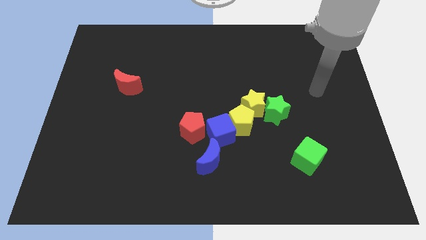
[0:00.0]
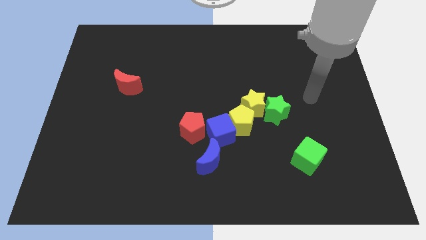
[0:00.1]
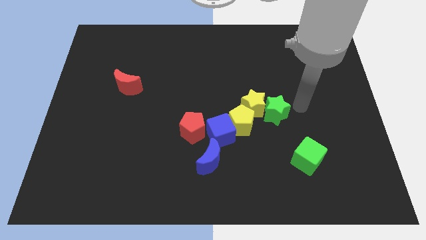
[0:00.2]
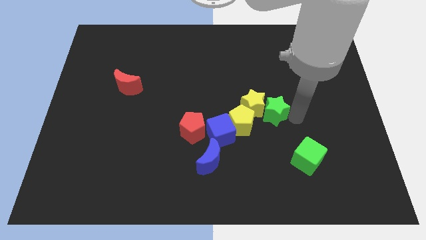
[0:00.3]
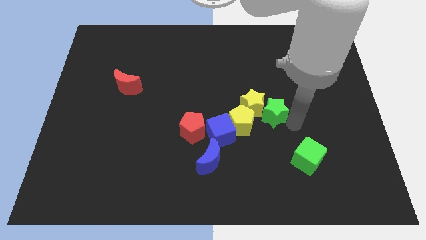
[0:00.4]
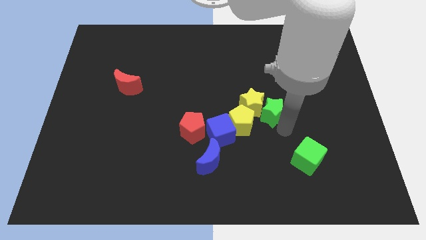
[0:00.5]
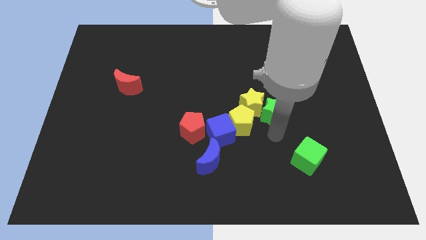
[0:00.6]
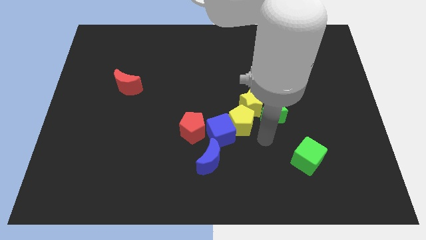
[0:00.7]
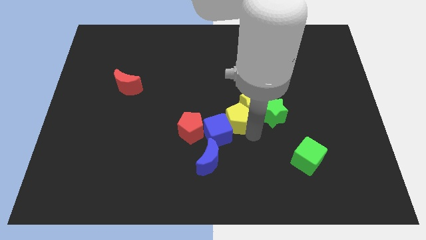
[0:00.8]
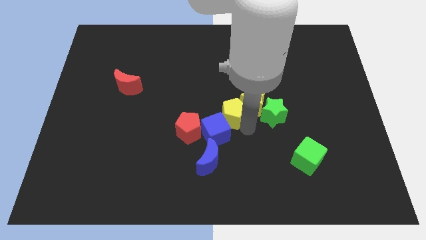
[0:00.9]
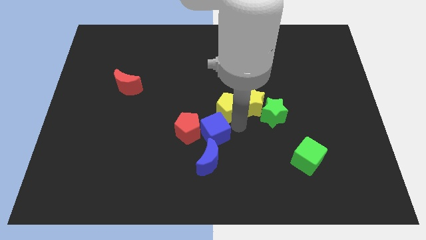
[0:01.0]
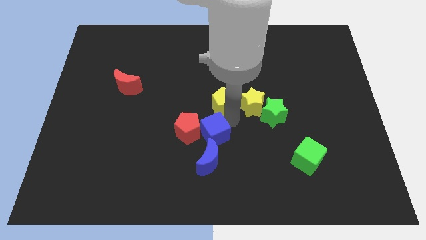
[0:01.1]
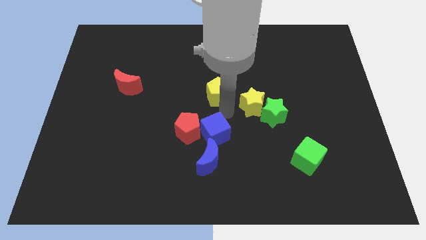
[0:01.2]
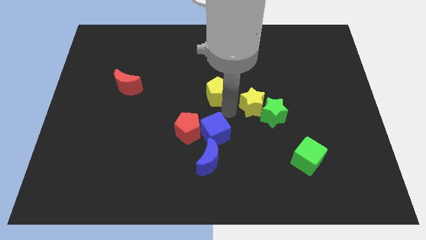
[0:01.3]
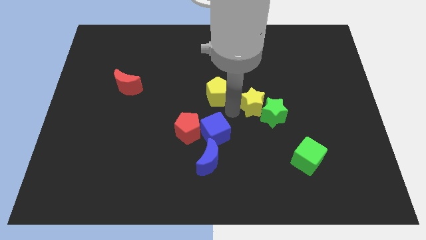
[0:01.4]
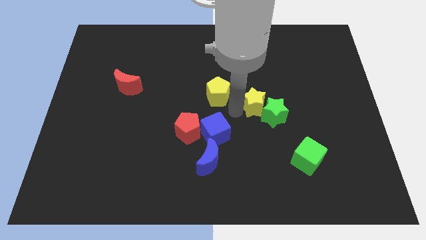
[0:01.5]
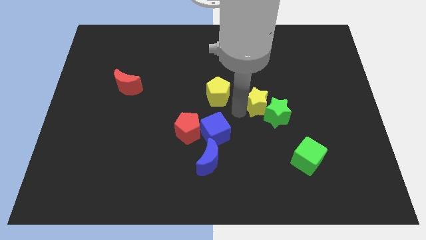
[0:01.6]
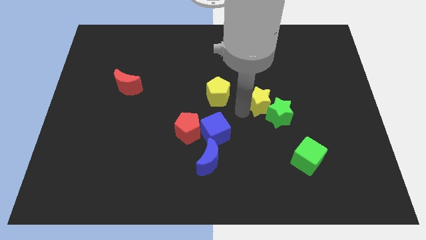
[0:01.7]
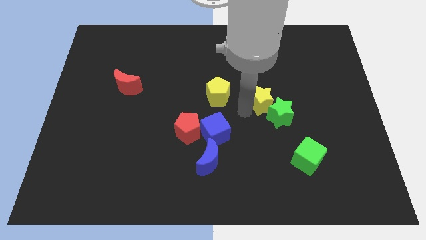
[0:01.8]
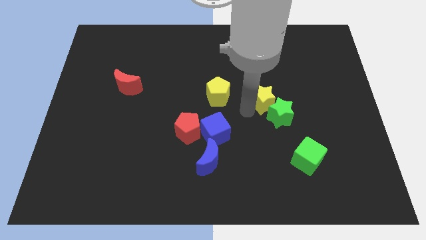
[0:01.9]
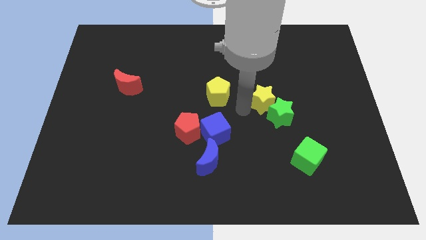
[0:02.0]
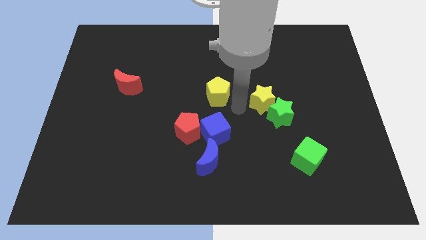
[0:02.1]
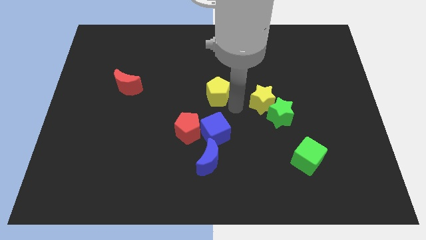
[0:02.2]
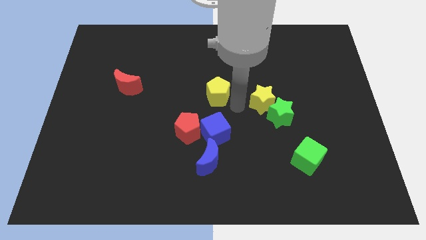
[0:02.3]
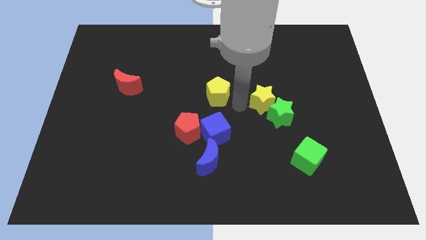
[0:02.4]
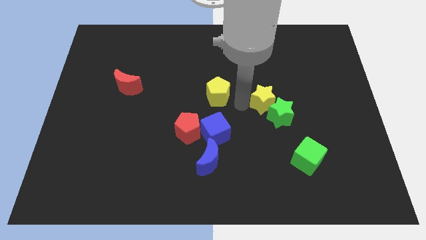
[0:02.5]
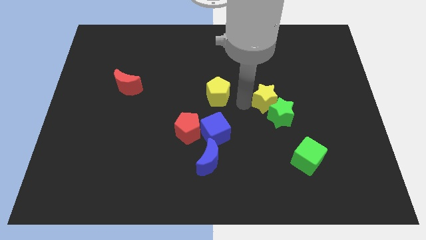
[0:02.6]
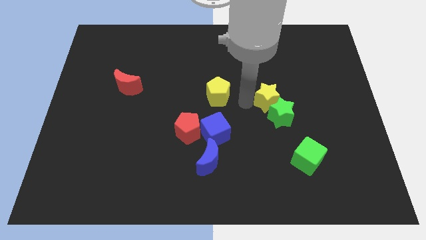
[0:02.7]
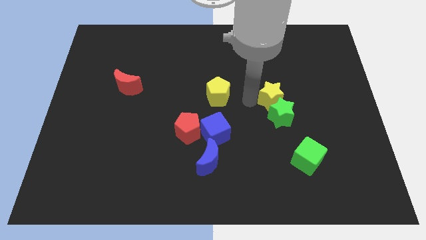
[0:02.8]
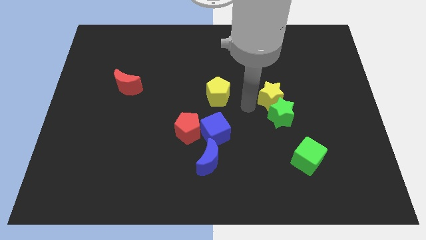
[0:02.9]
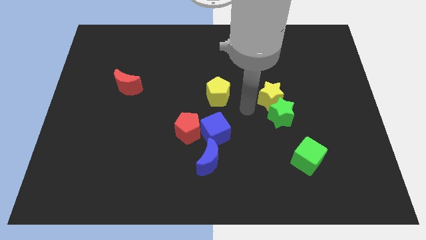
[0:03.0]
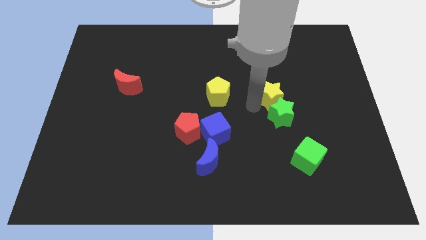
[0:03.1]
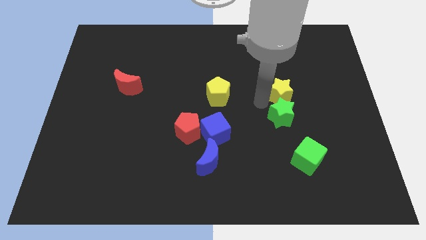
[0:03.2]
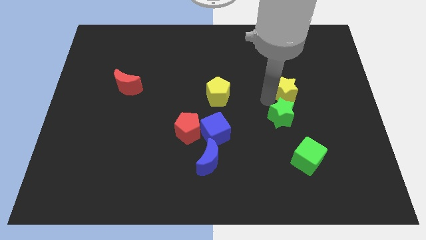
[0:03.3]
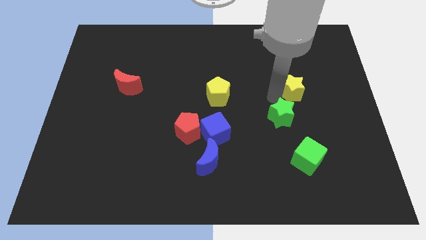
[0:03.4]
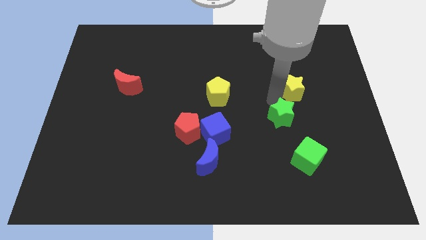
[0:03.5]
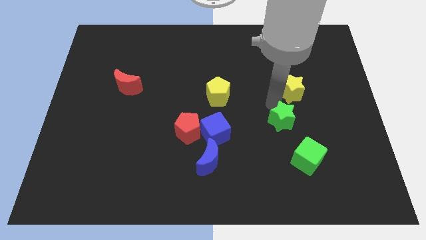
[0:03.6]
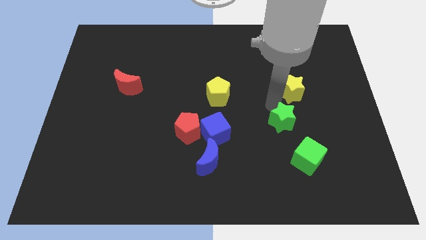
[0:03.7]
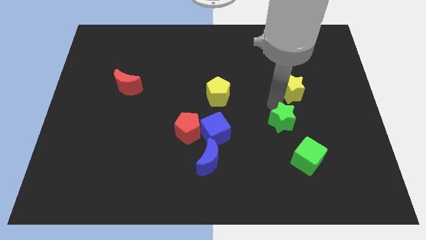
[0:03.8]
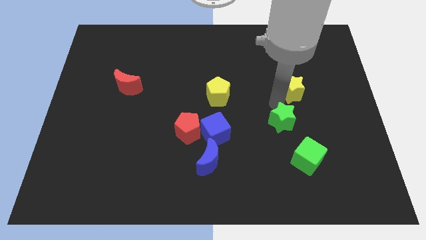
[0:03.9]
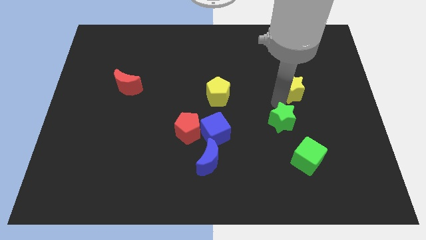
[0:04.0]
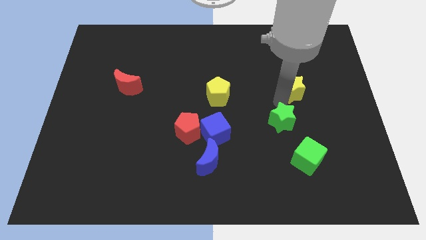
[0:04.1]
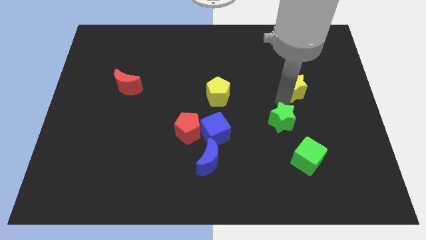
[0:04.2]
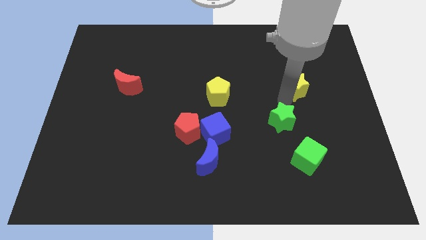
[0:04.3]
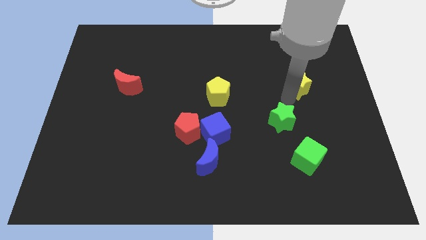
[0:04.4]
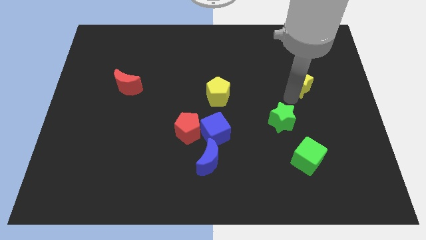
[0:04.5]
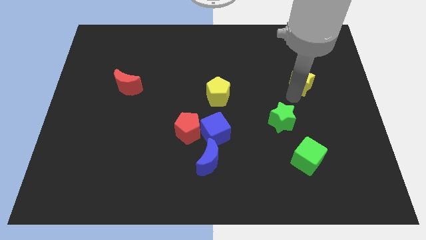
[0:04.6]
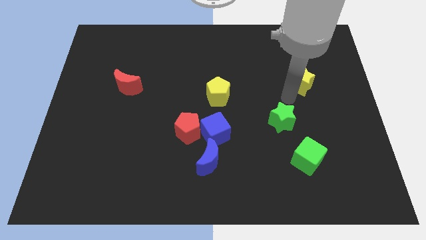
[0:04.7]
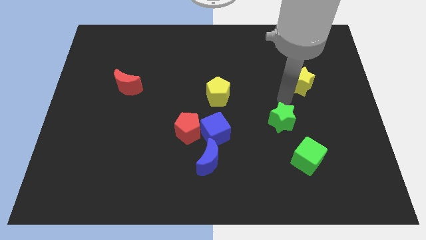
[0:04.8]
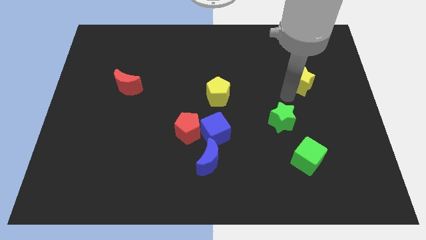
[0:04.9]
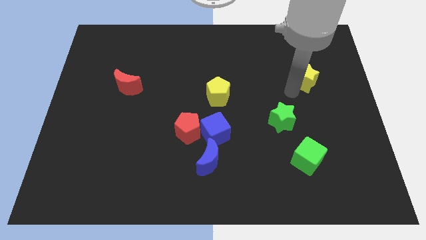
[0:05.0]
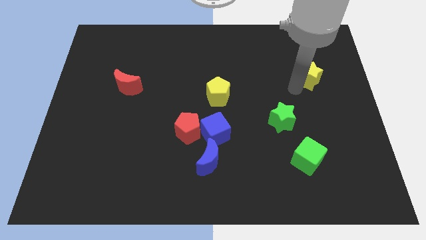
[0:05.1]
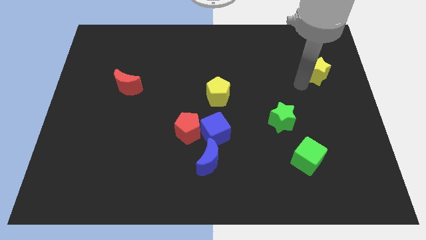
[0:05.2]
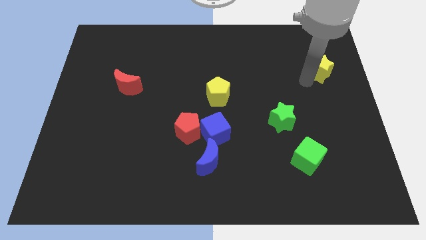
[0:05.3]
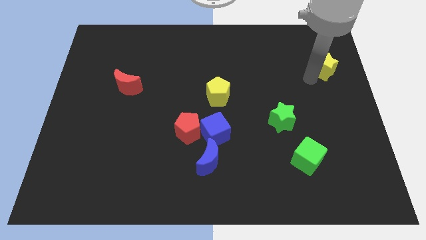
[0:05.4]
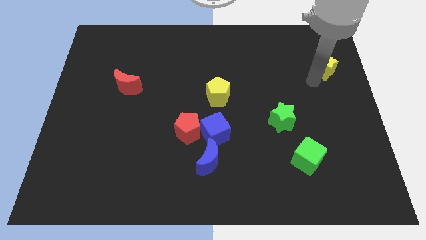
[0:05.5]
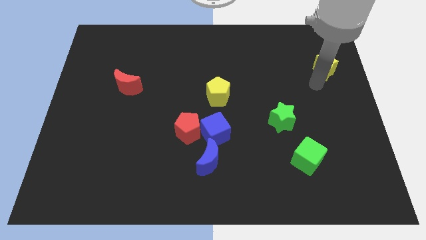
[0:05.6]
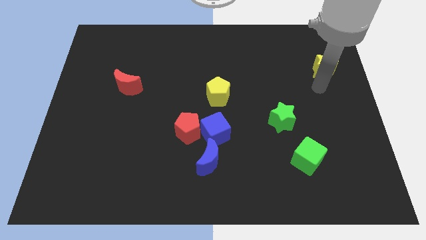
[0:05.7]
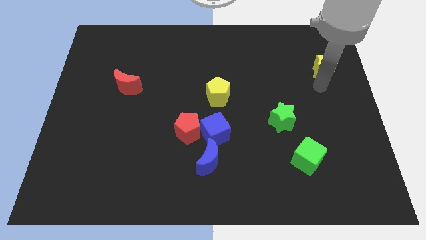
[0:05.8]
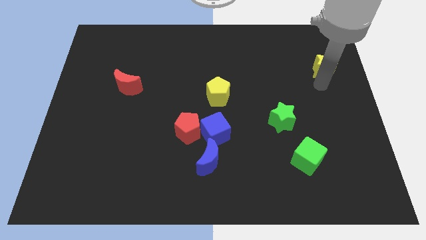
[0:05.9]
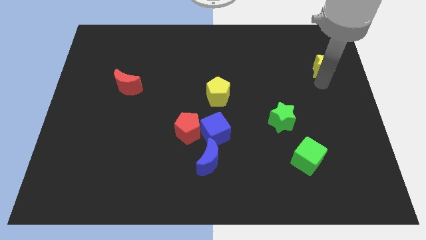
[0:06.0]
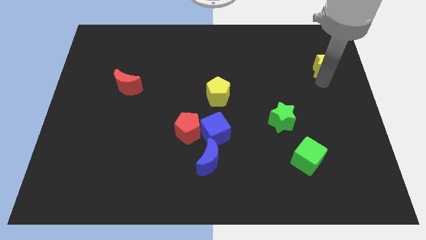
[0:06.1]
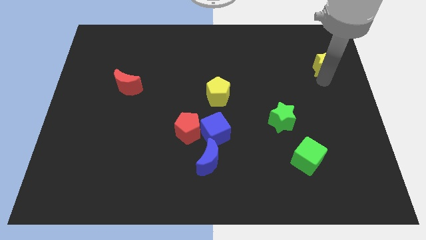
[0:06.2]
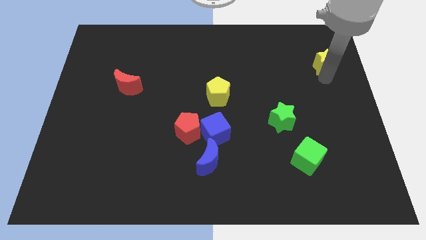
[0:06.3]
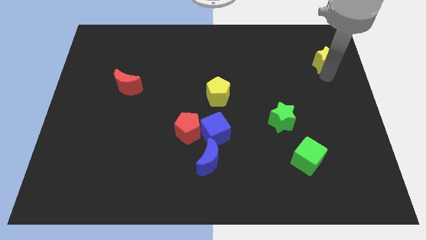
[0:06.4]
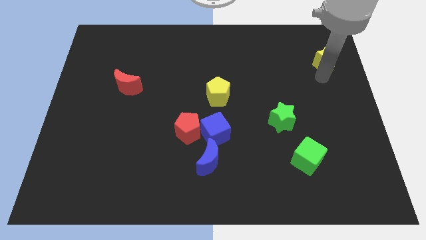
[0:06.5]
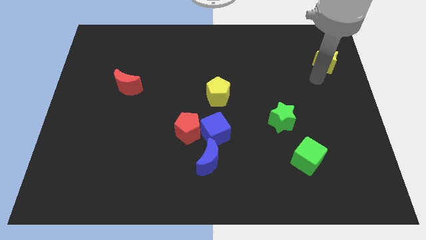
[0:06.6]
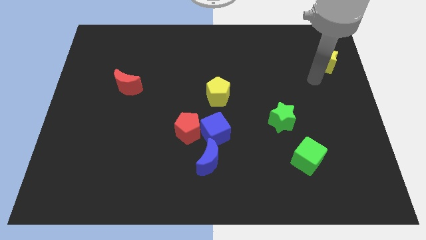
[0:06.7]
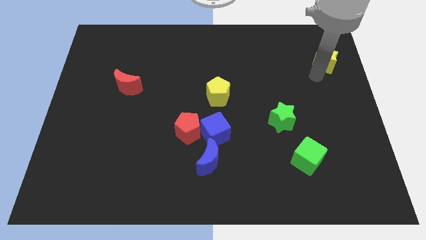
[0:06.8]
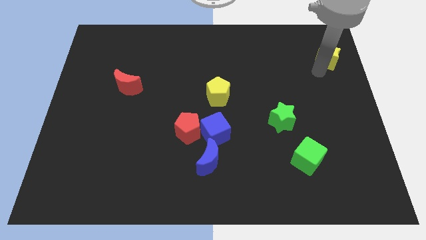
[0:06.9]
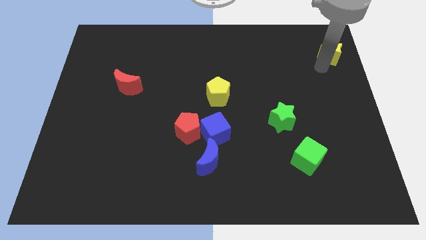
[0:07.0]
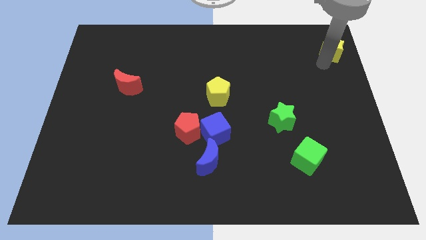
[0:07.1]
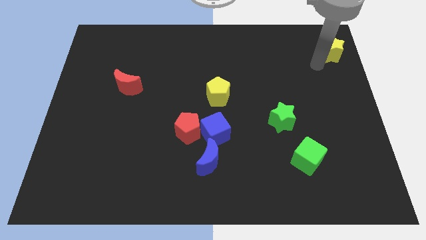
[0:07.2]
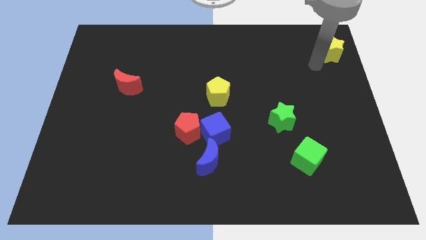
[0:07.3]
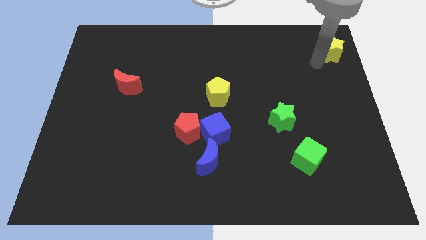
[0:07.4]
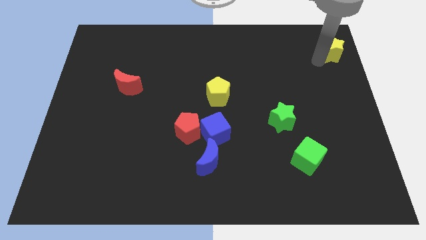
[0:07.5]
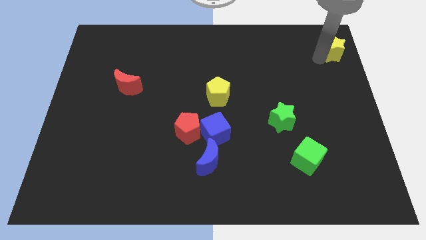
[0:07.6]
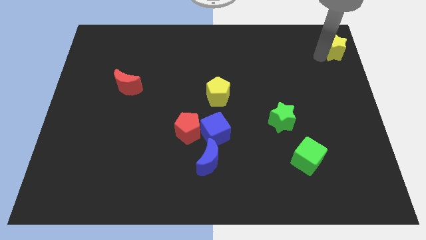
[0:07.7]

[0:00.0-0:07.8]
push the yellow star to the top right corner
